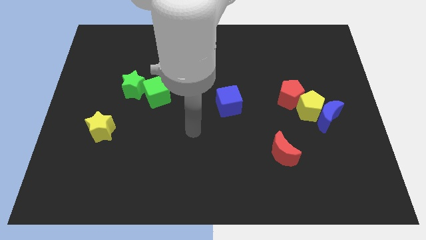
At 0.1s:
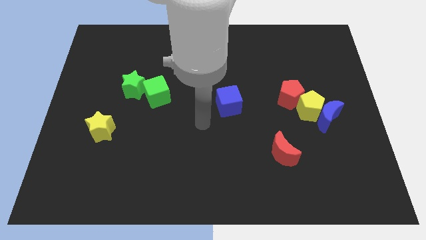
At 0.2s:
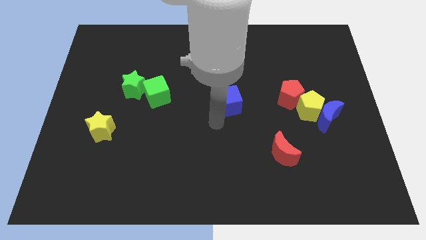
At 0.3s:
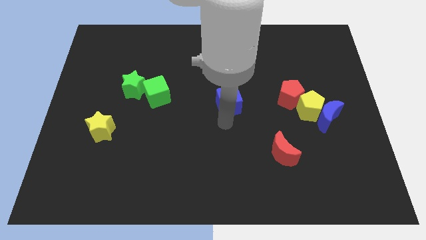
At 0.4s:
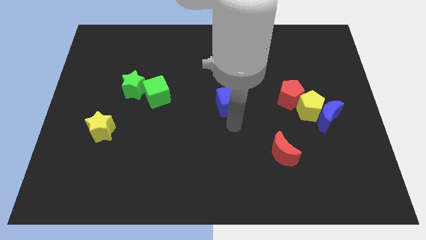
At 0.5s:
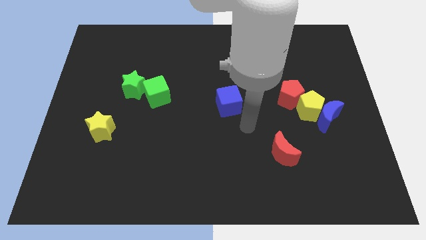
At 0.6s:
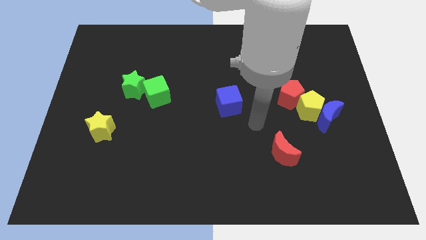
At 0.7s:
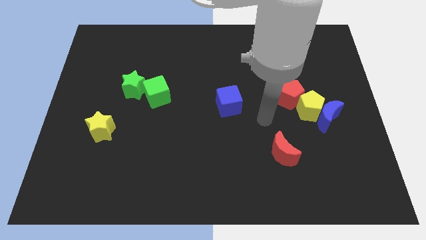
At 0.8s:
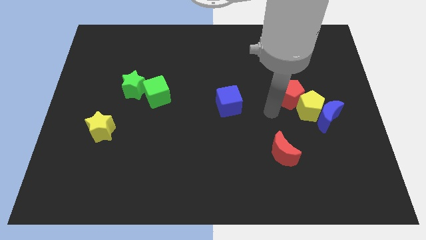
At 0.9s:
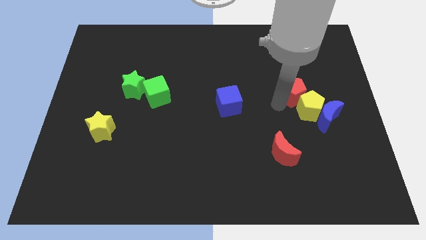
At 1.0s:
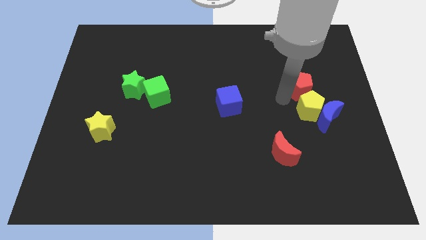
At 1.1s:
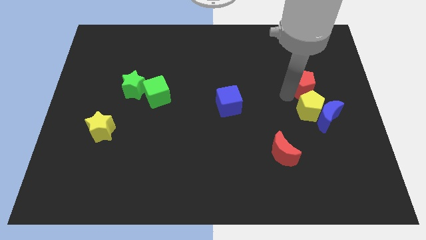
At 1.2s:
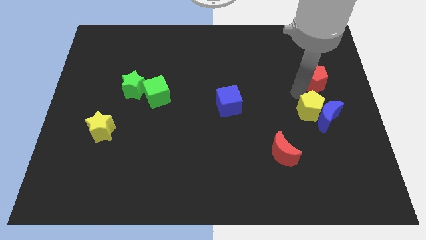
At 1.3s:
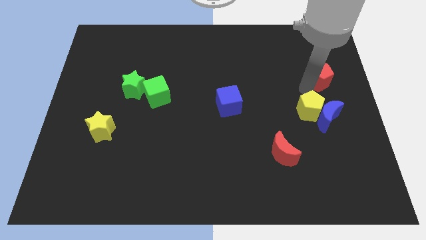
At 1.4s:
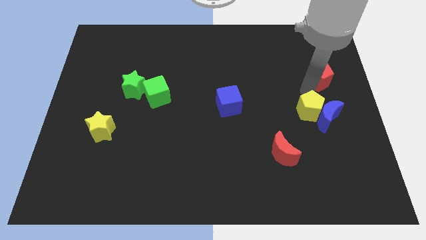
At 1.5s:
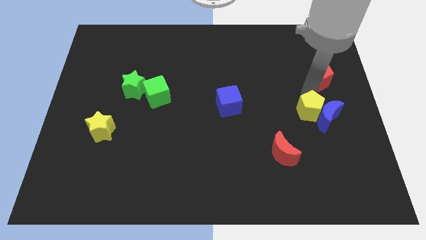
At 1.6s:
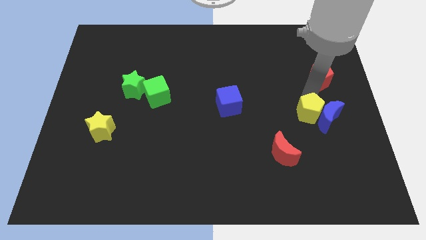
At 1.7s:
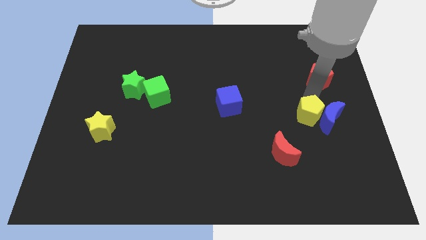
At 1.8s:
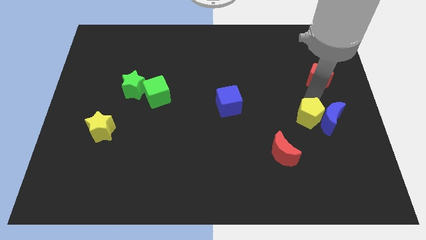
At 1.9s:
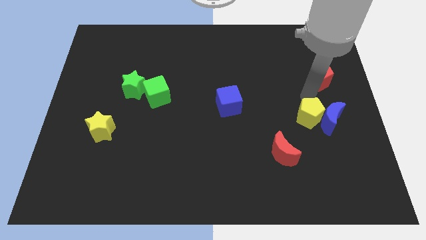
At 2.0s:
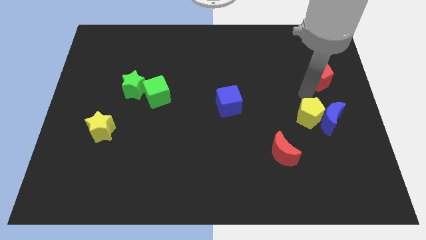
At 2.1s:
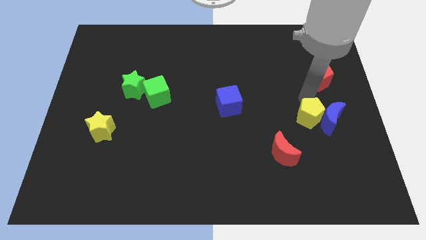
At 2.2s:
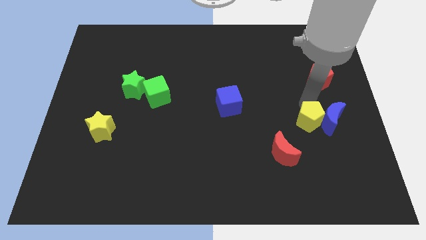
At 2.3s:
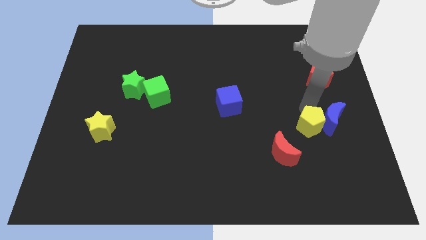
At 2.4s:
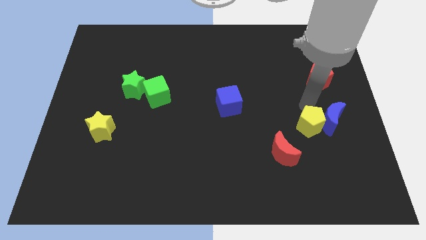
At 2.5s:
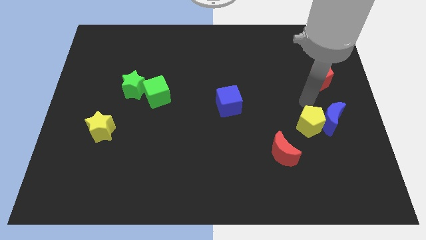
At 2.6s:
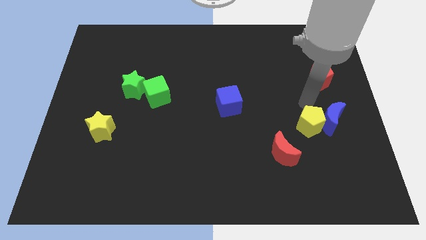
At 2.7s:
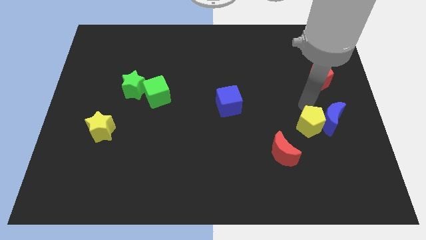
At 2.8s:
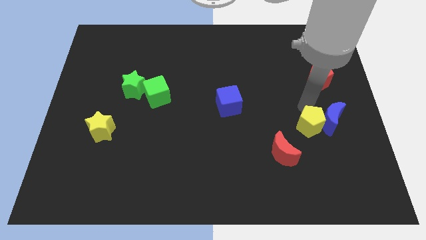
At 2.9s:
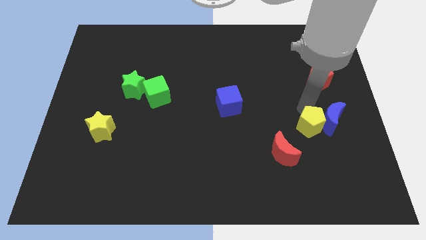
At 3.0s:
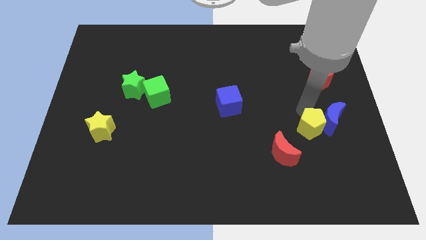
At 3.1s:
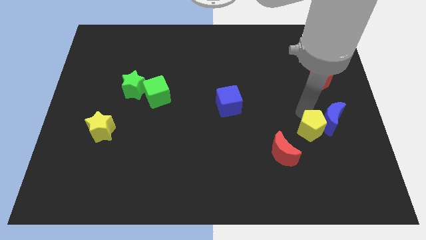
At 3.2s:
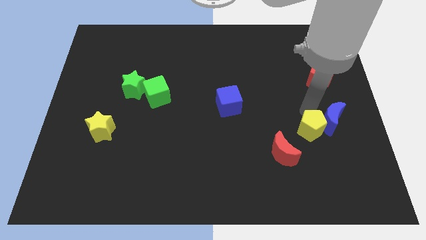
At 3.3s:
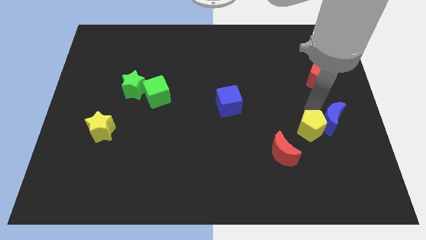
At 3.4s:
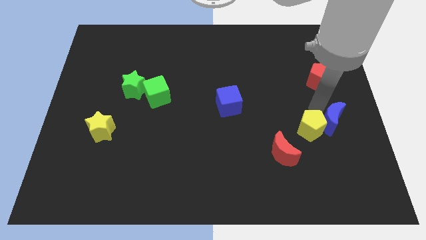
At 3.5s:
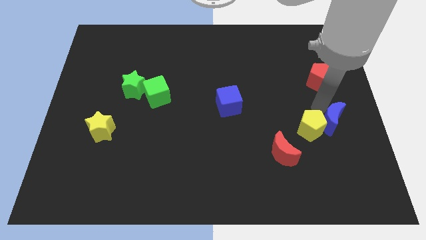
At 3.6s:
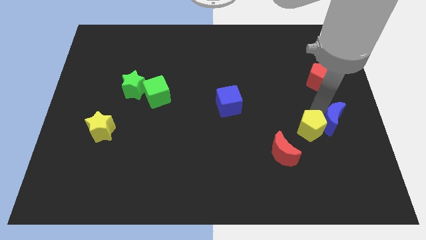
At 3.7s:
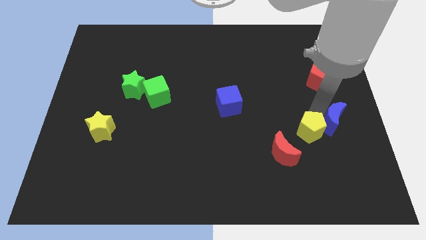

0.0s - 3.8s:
separate the yellow pentagon from the blue moon and red pentagon

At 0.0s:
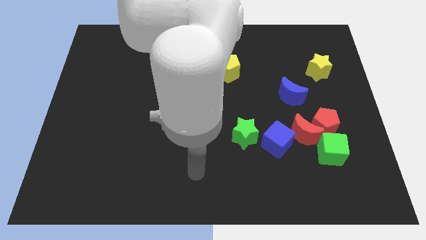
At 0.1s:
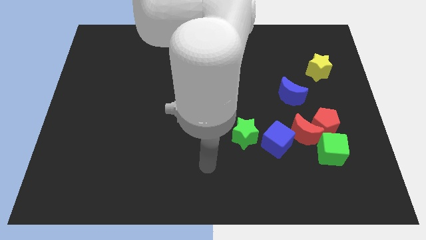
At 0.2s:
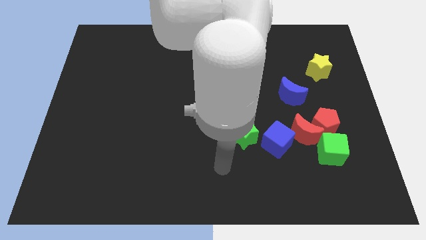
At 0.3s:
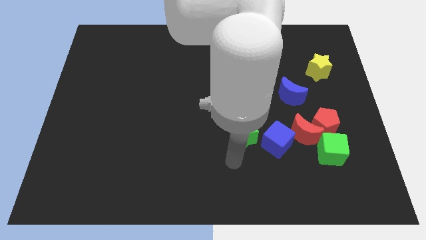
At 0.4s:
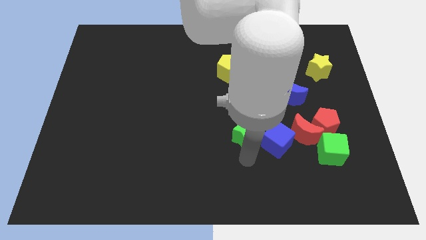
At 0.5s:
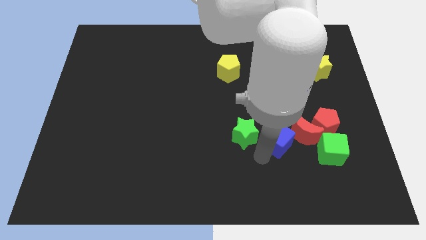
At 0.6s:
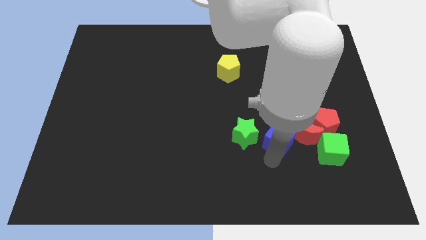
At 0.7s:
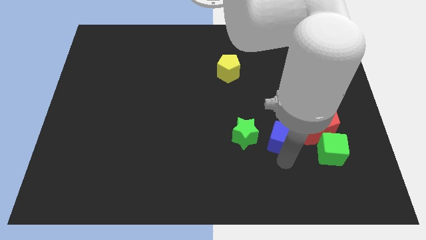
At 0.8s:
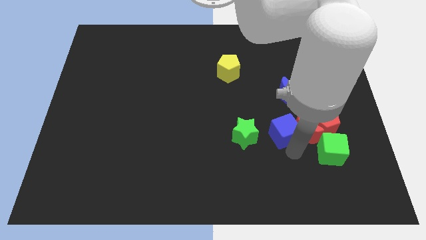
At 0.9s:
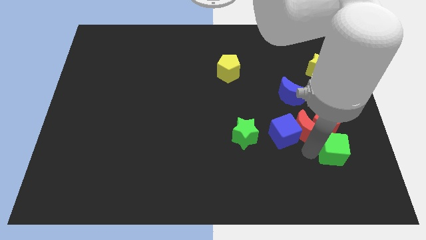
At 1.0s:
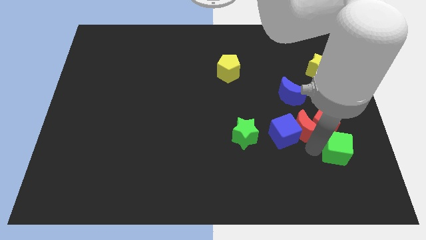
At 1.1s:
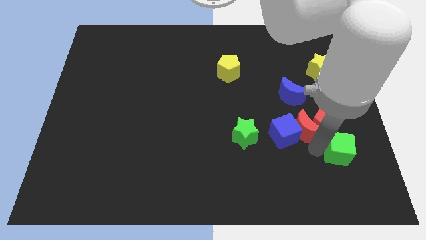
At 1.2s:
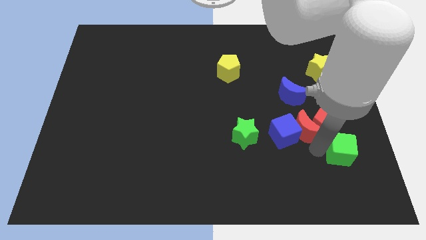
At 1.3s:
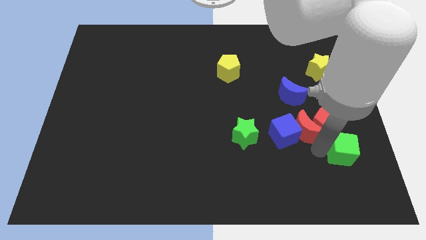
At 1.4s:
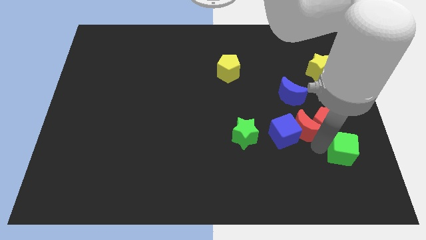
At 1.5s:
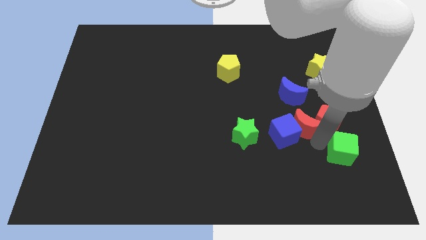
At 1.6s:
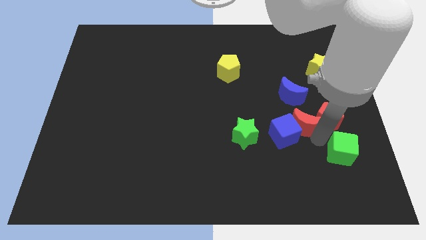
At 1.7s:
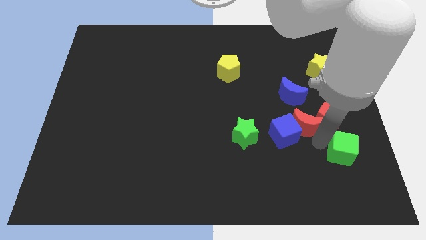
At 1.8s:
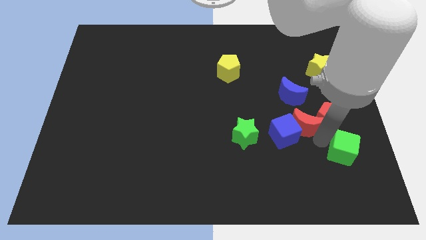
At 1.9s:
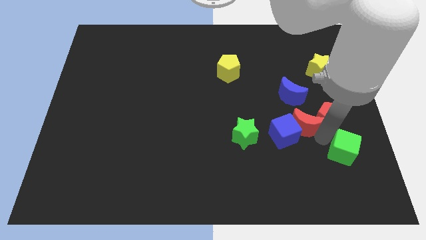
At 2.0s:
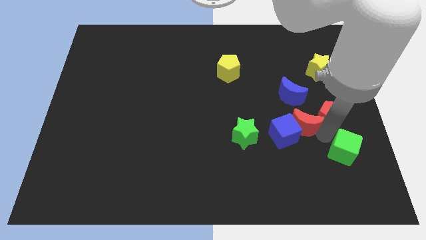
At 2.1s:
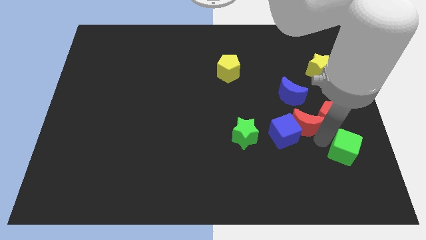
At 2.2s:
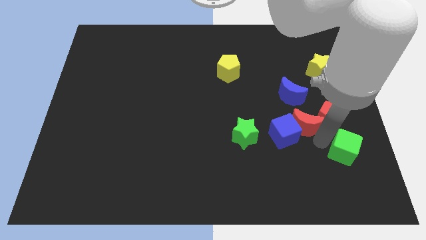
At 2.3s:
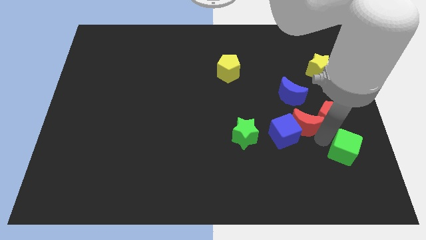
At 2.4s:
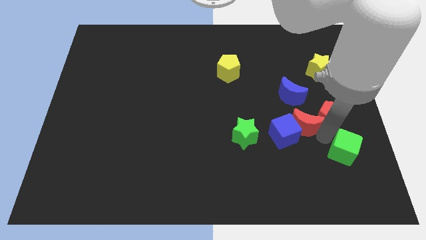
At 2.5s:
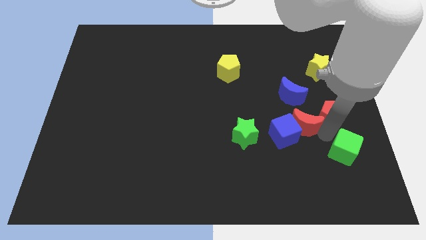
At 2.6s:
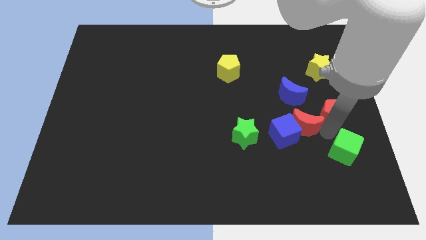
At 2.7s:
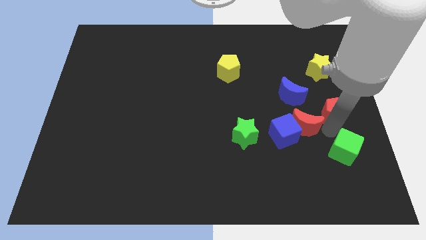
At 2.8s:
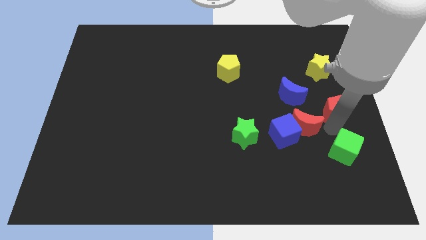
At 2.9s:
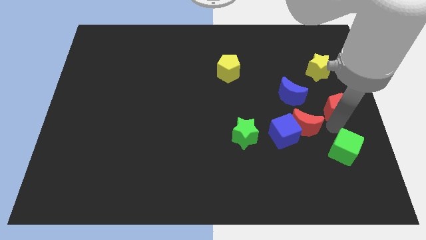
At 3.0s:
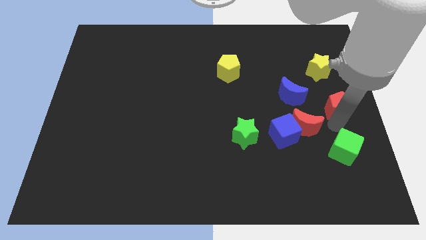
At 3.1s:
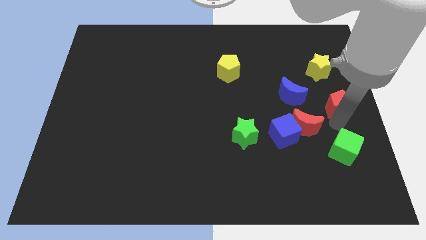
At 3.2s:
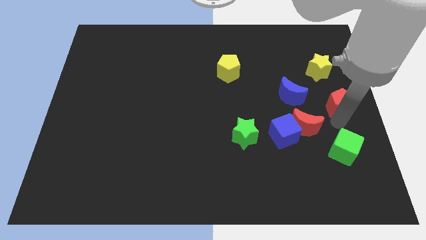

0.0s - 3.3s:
separate the red pentagon from the red moon and green cube

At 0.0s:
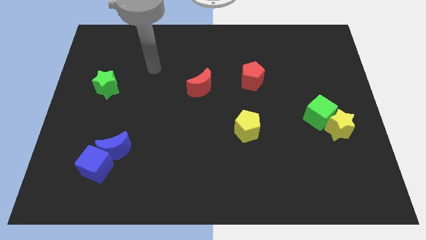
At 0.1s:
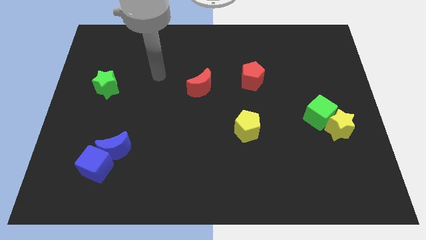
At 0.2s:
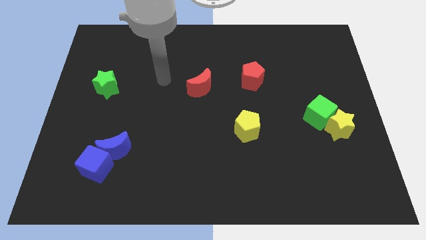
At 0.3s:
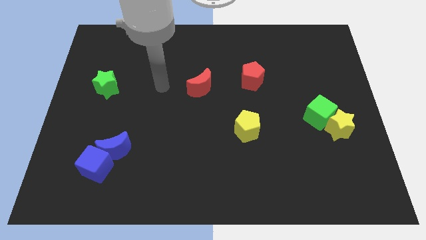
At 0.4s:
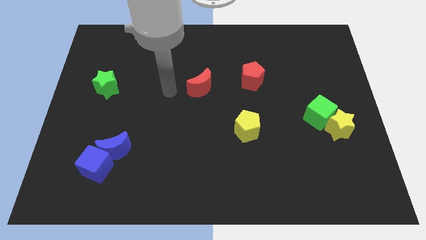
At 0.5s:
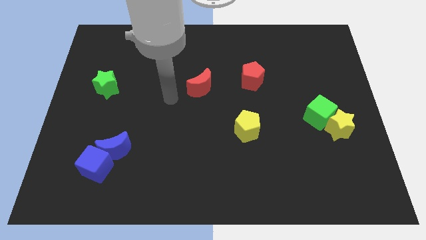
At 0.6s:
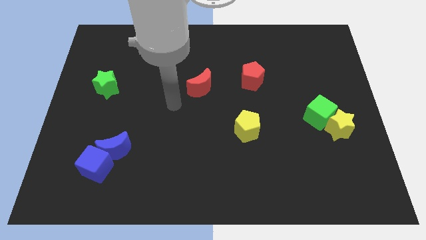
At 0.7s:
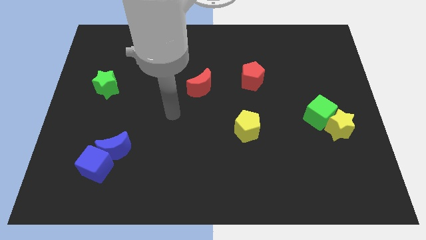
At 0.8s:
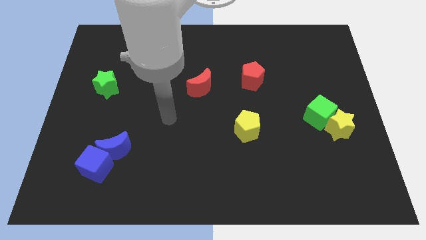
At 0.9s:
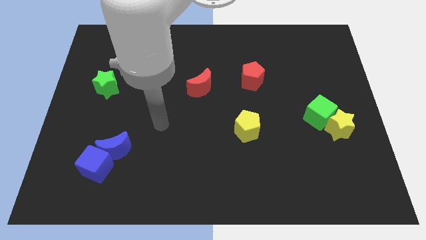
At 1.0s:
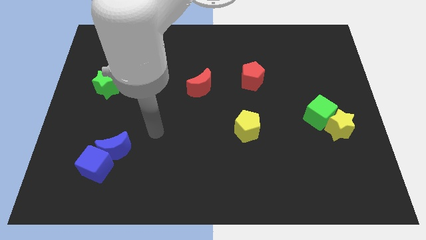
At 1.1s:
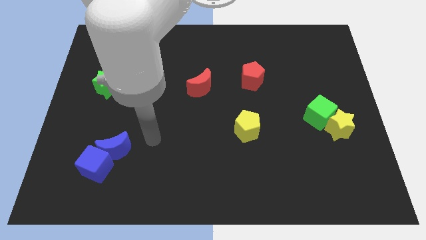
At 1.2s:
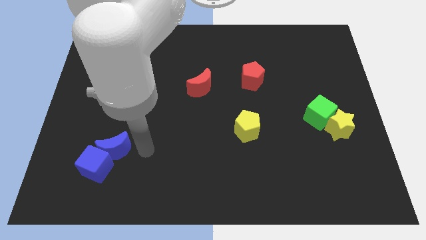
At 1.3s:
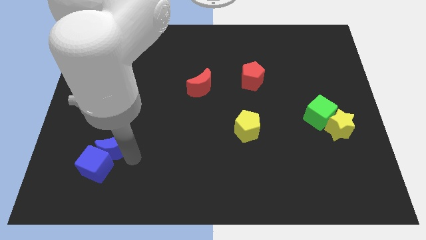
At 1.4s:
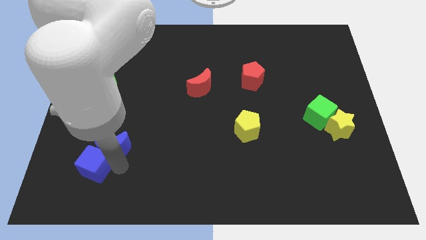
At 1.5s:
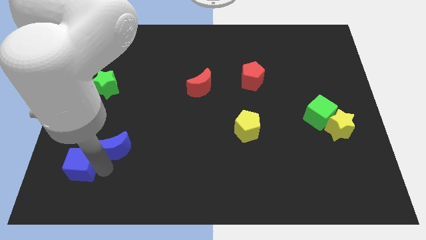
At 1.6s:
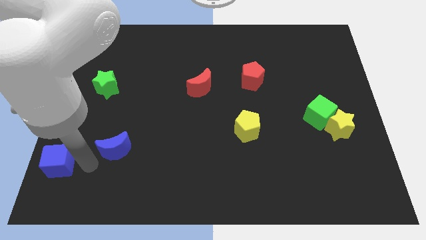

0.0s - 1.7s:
separate the blue moon from the blue cube

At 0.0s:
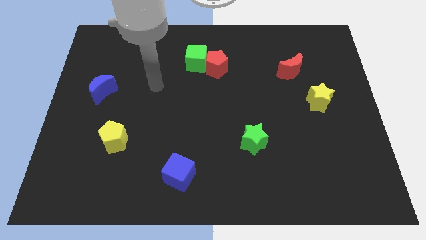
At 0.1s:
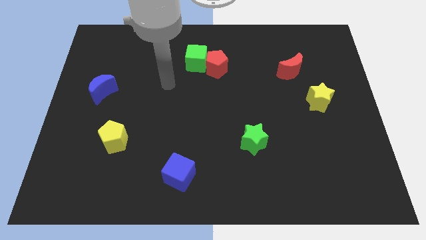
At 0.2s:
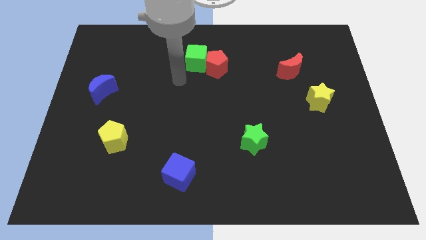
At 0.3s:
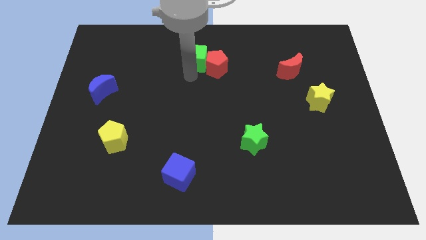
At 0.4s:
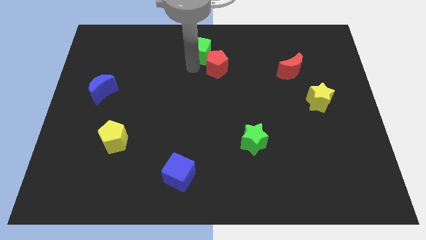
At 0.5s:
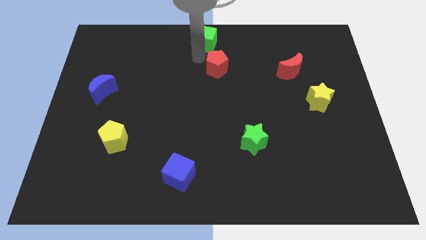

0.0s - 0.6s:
move the red pentagon away from the green cube
